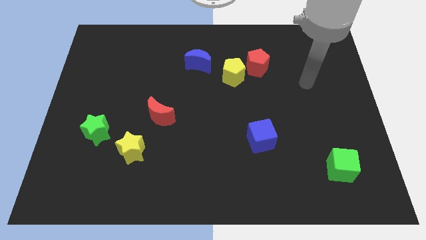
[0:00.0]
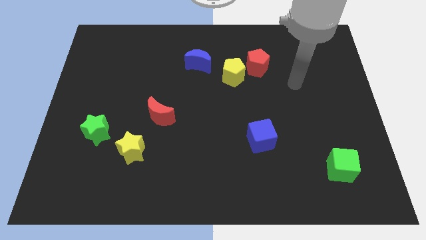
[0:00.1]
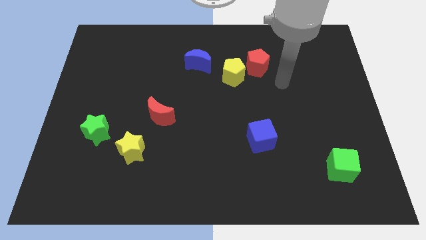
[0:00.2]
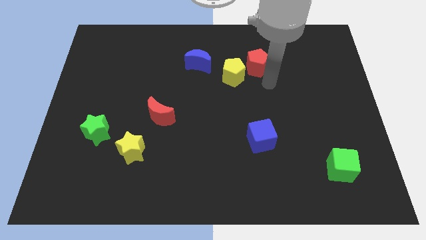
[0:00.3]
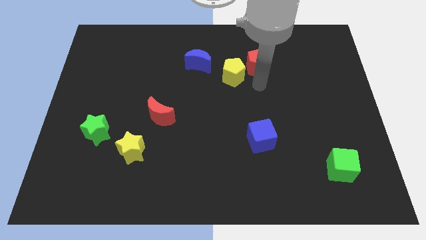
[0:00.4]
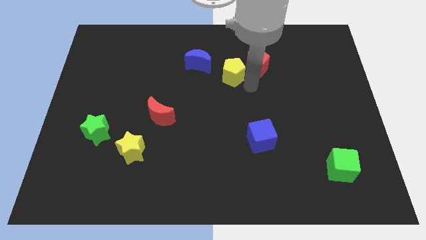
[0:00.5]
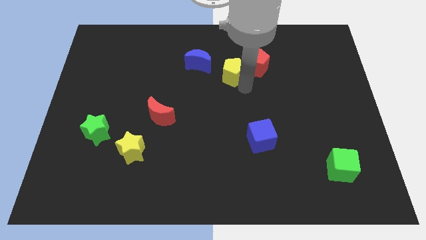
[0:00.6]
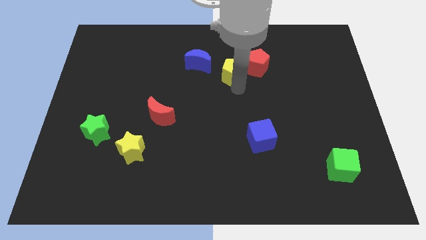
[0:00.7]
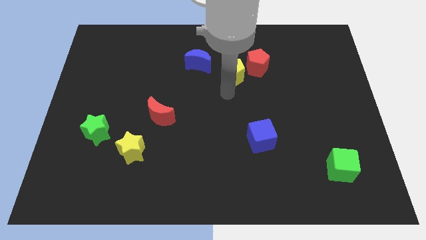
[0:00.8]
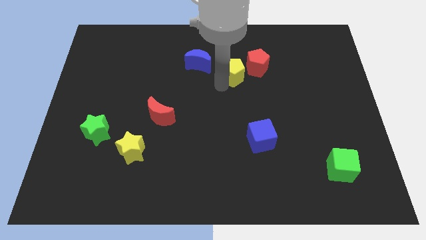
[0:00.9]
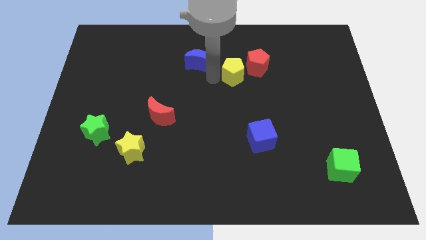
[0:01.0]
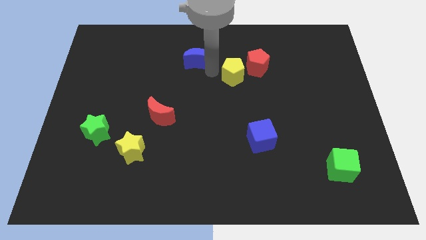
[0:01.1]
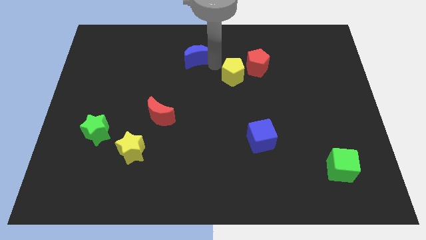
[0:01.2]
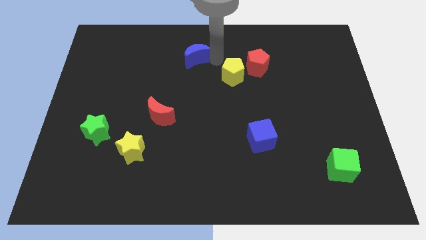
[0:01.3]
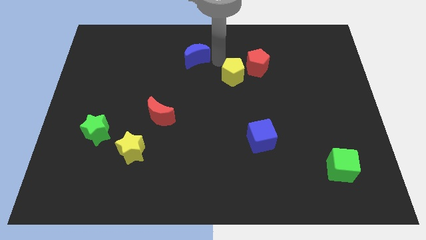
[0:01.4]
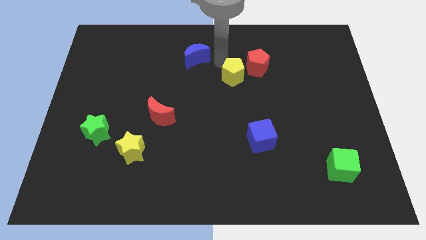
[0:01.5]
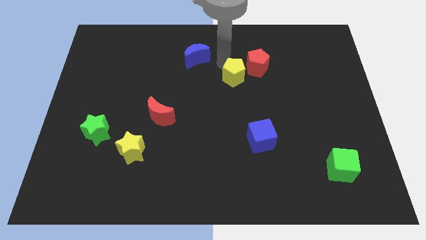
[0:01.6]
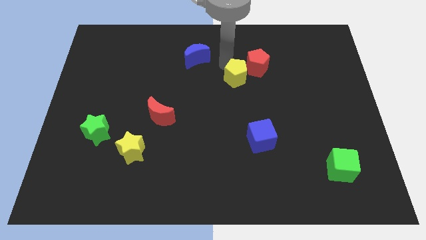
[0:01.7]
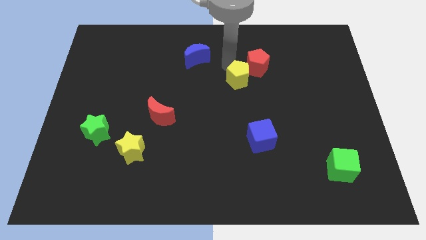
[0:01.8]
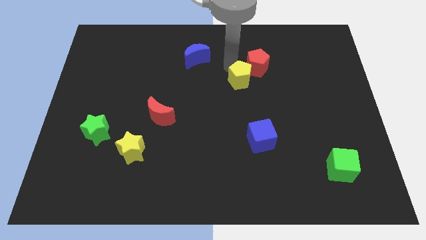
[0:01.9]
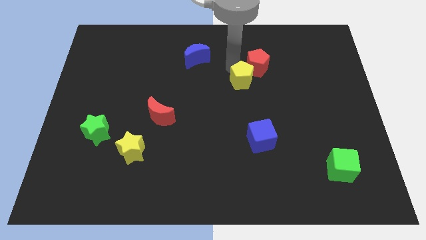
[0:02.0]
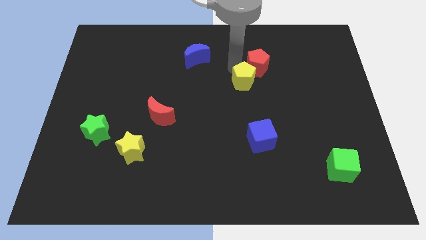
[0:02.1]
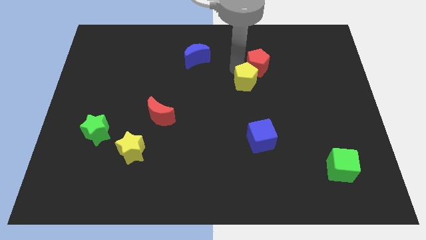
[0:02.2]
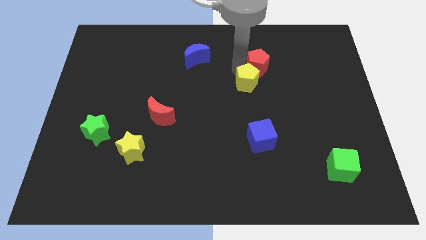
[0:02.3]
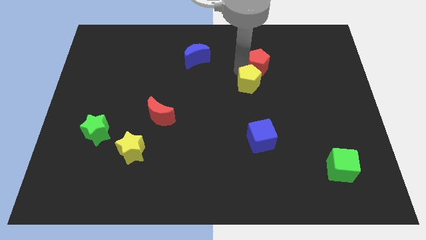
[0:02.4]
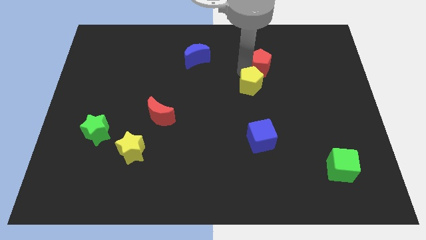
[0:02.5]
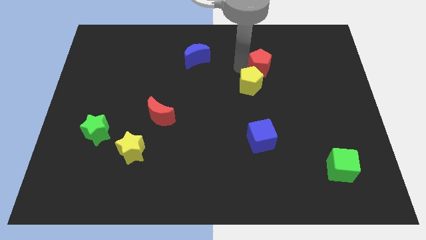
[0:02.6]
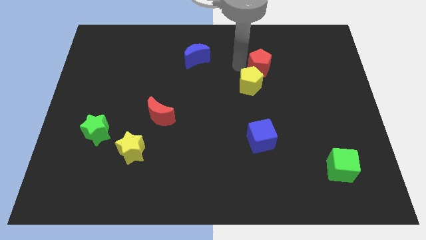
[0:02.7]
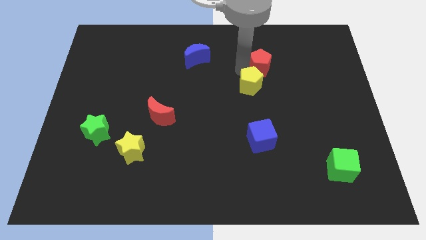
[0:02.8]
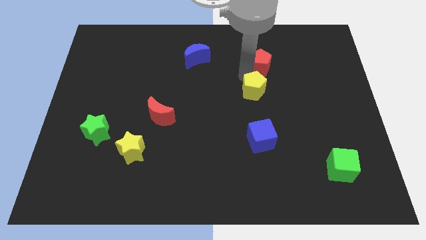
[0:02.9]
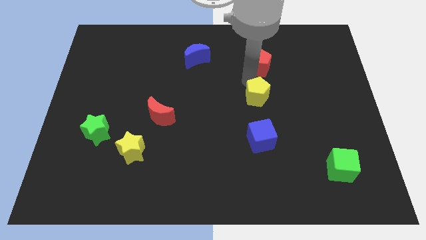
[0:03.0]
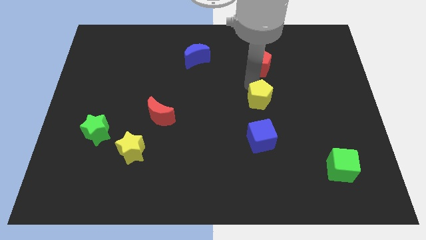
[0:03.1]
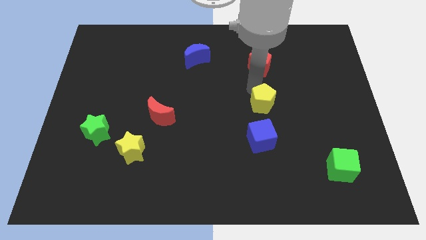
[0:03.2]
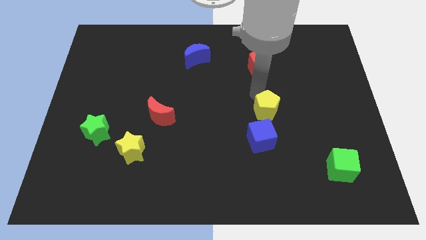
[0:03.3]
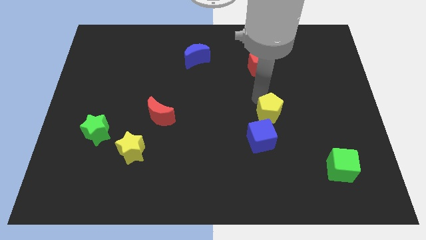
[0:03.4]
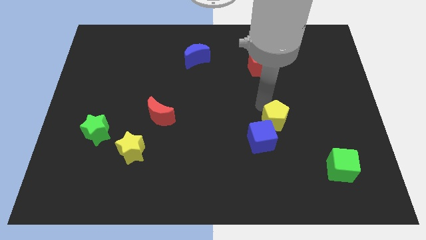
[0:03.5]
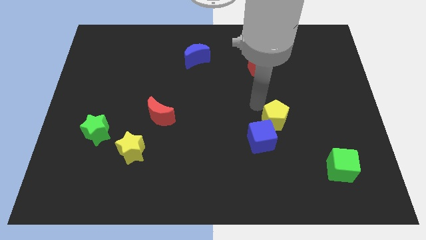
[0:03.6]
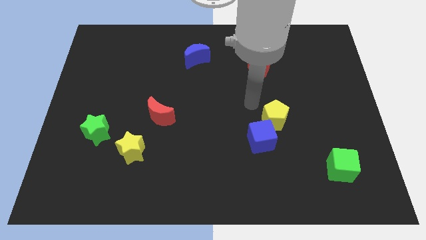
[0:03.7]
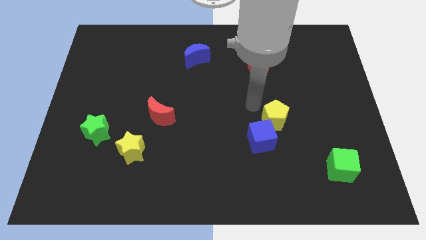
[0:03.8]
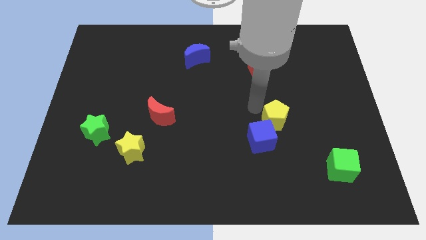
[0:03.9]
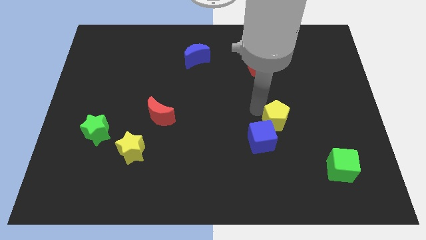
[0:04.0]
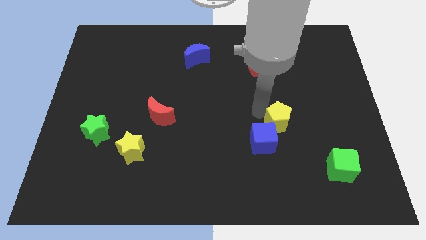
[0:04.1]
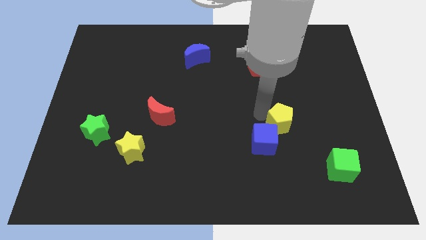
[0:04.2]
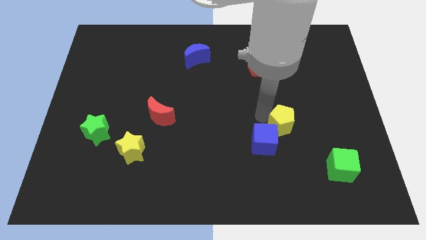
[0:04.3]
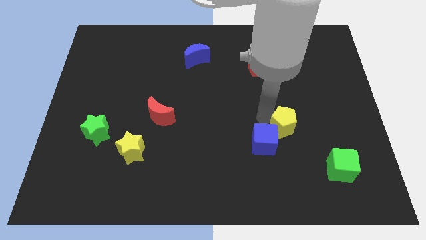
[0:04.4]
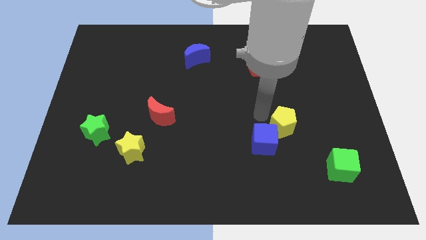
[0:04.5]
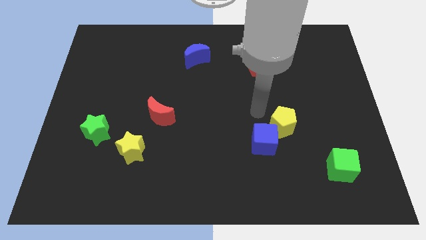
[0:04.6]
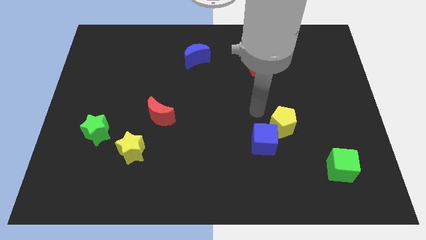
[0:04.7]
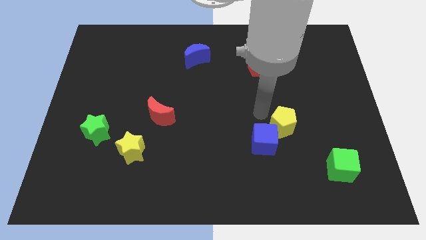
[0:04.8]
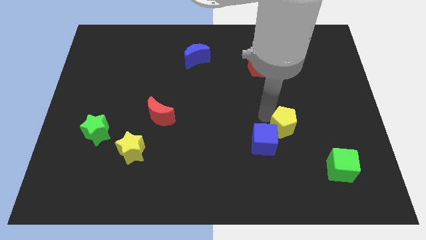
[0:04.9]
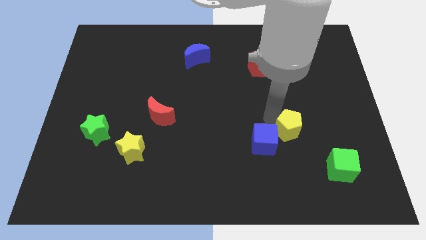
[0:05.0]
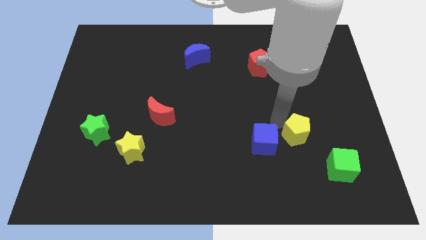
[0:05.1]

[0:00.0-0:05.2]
push the yellow pentagon to the top left side of the green cube

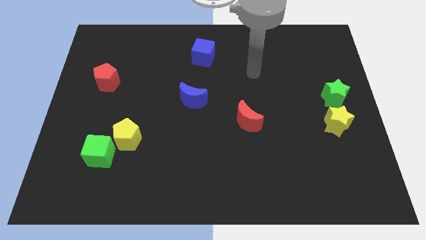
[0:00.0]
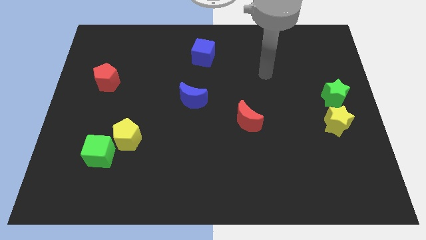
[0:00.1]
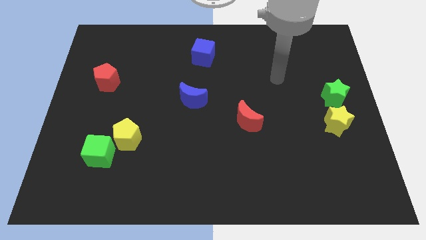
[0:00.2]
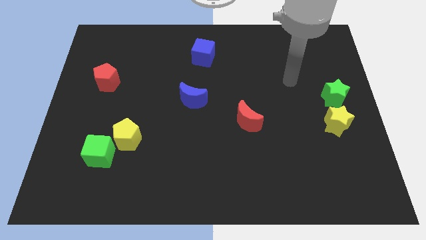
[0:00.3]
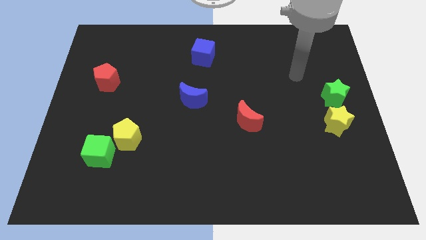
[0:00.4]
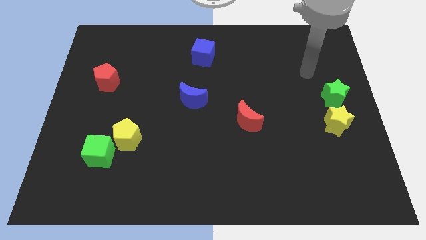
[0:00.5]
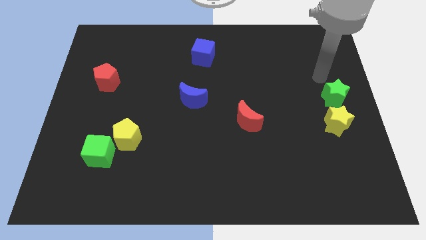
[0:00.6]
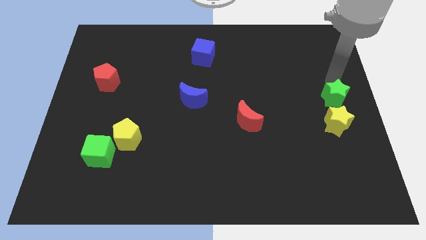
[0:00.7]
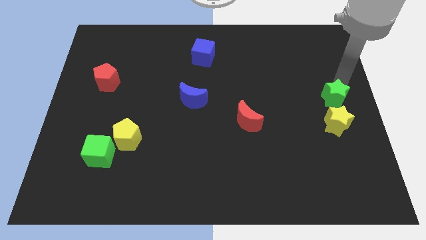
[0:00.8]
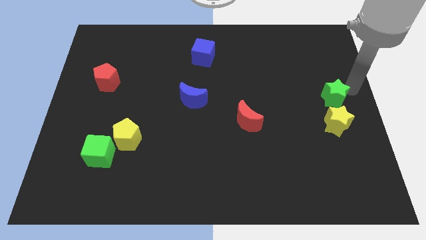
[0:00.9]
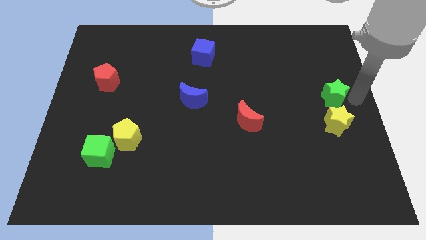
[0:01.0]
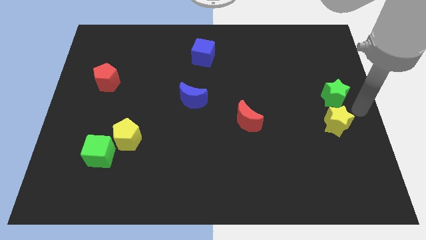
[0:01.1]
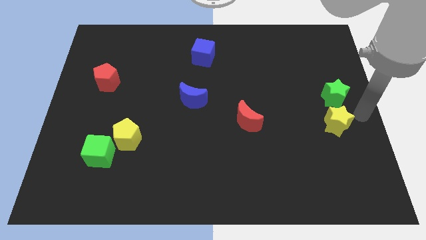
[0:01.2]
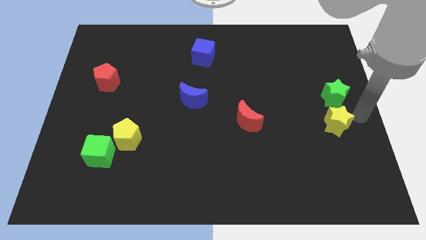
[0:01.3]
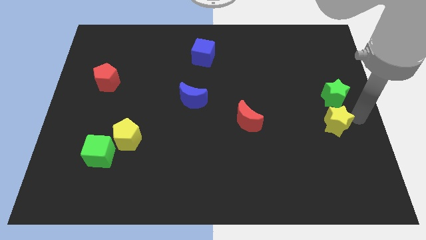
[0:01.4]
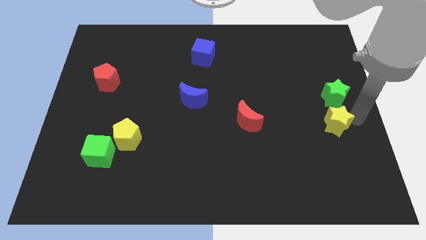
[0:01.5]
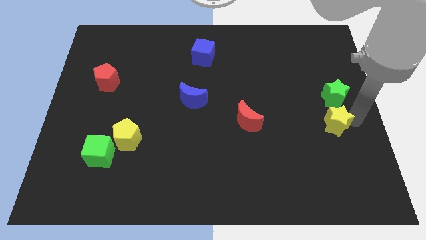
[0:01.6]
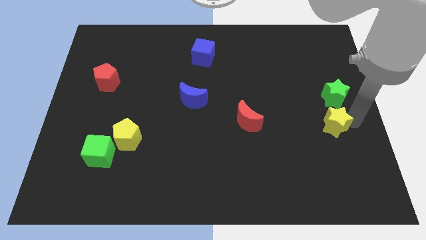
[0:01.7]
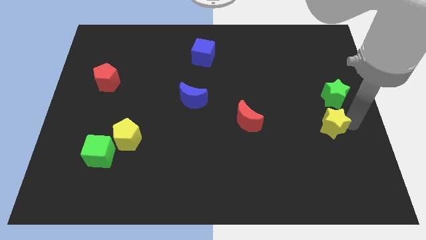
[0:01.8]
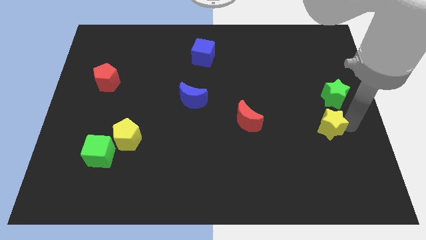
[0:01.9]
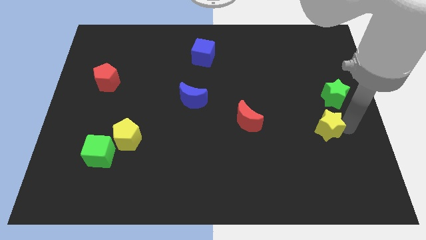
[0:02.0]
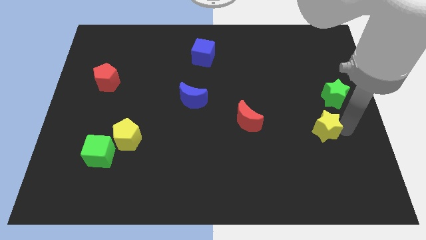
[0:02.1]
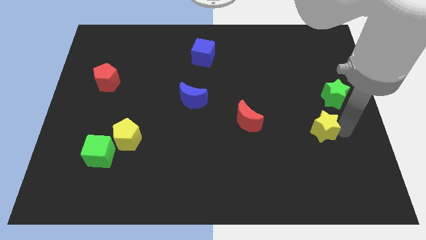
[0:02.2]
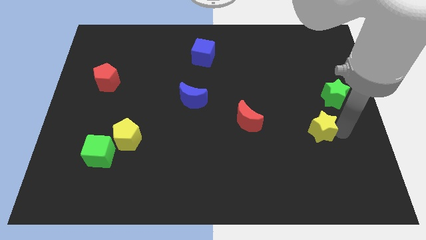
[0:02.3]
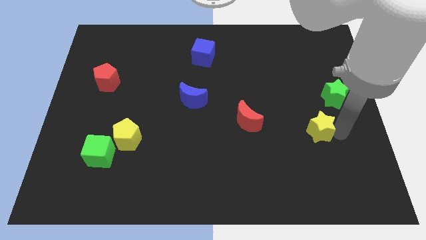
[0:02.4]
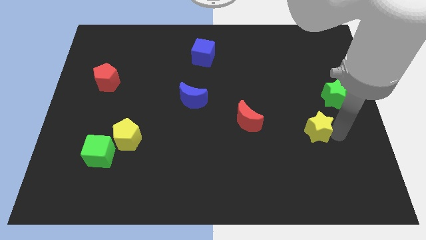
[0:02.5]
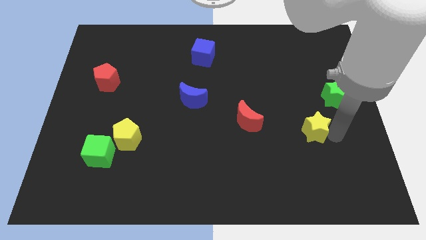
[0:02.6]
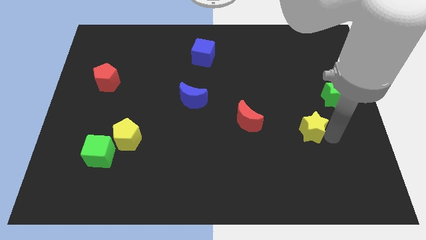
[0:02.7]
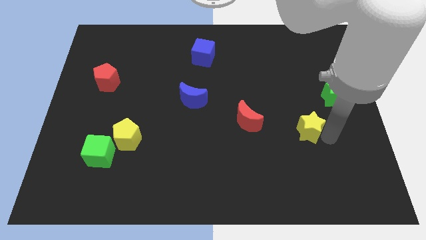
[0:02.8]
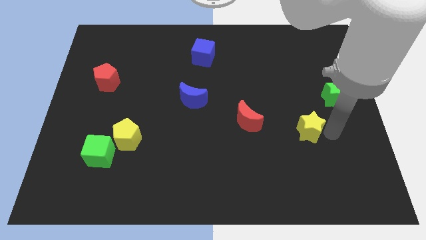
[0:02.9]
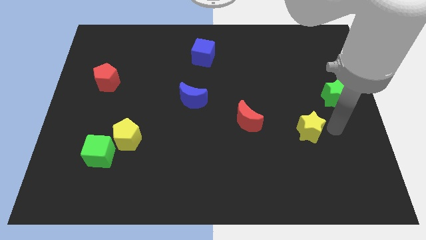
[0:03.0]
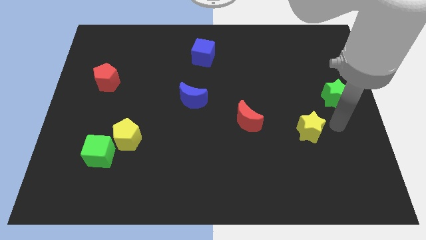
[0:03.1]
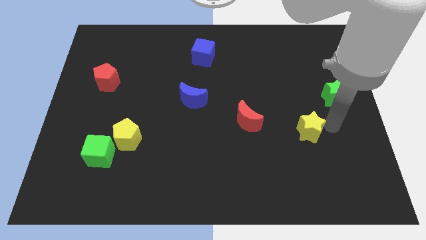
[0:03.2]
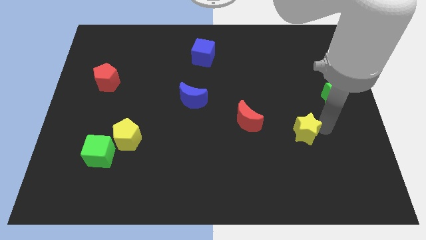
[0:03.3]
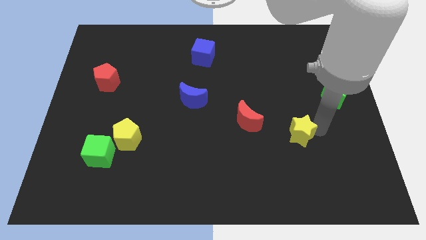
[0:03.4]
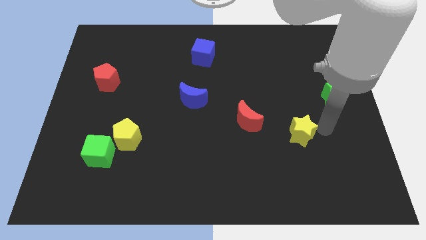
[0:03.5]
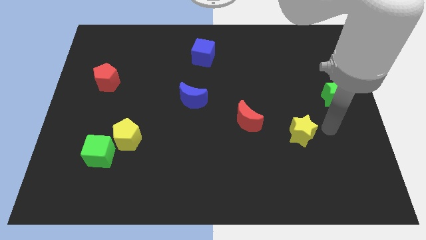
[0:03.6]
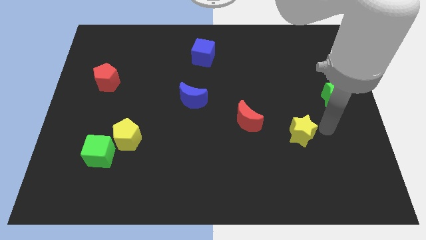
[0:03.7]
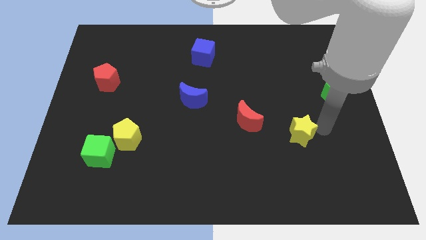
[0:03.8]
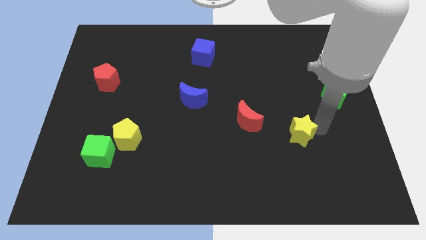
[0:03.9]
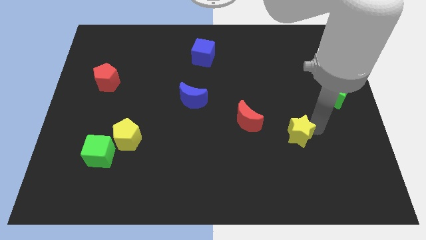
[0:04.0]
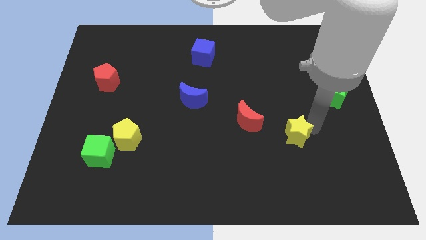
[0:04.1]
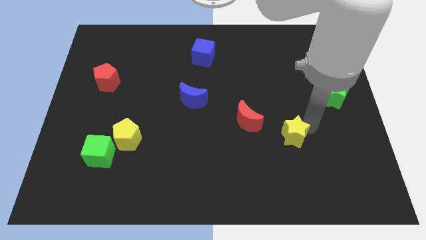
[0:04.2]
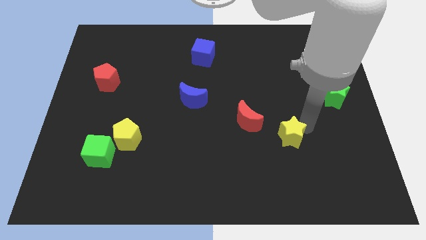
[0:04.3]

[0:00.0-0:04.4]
move the yellow star to the bottom right side of the red moon
